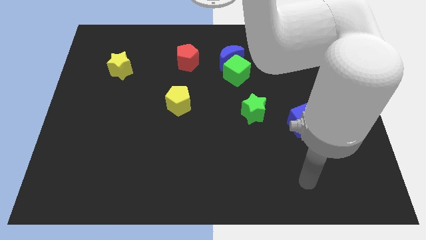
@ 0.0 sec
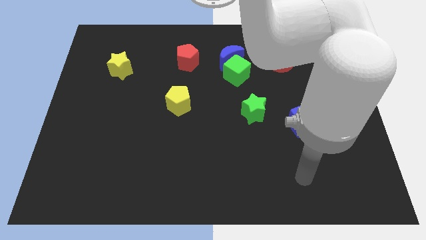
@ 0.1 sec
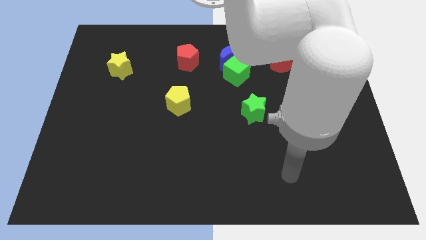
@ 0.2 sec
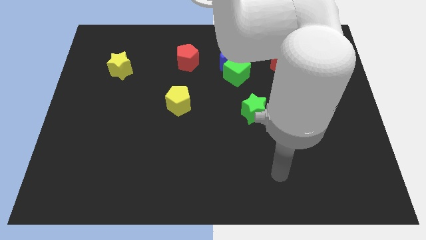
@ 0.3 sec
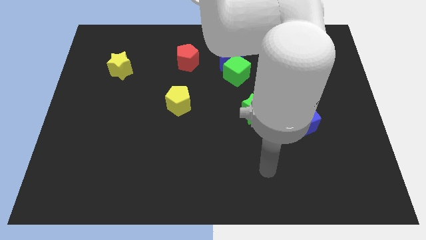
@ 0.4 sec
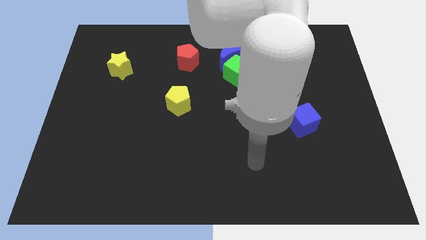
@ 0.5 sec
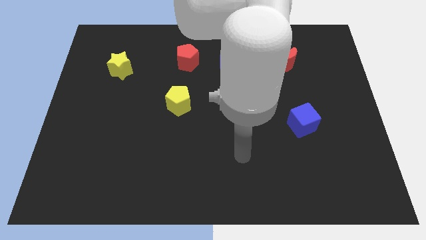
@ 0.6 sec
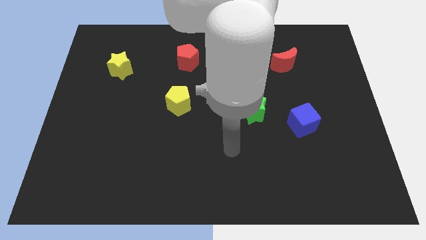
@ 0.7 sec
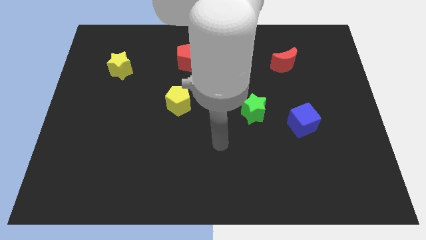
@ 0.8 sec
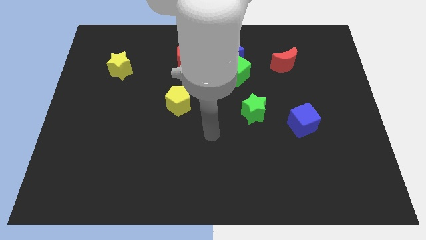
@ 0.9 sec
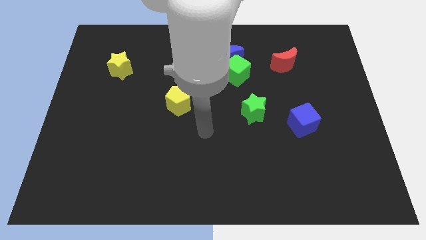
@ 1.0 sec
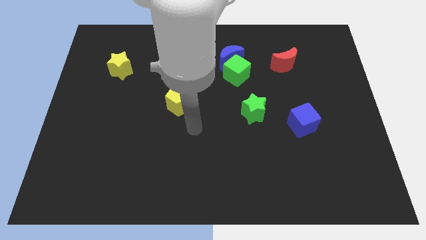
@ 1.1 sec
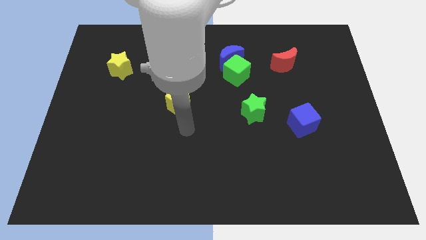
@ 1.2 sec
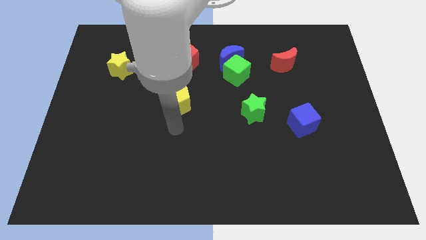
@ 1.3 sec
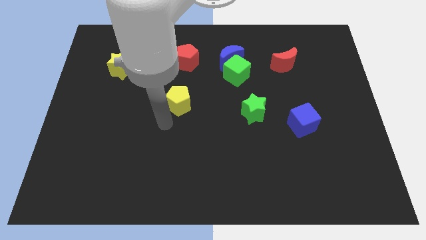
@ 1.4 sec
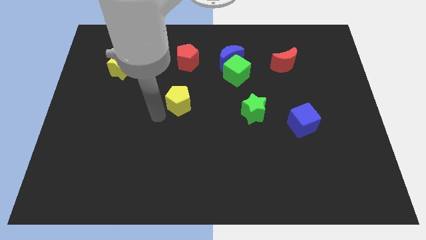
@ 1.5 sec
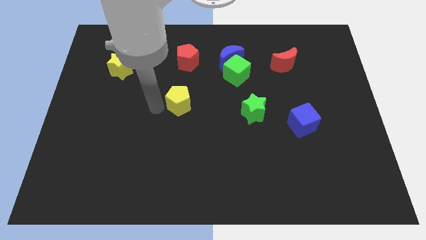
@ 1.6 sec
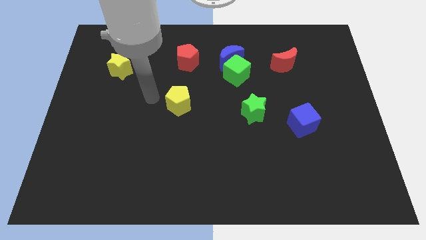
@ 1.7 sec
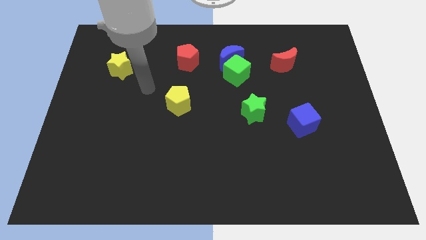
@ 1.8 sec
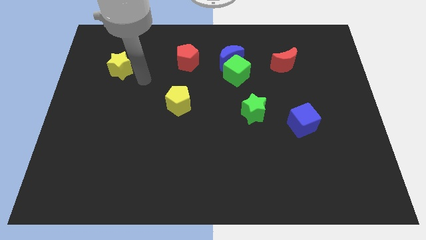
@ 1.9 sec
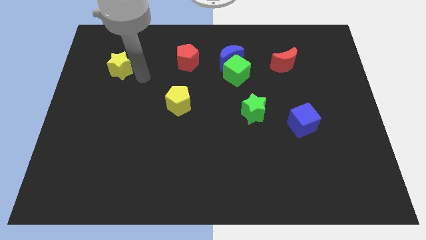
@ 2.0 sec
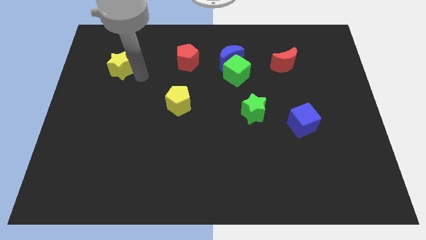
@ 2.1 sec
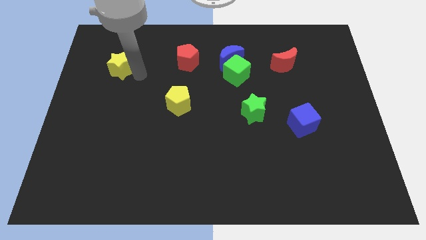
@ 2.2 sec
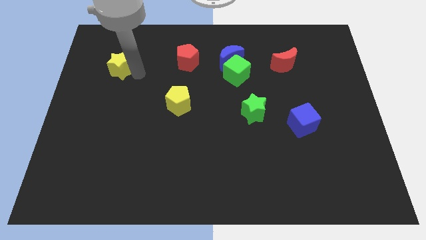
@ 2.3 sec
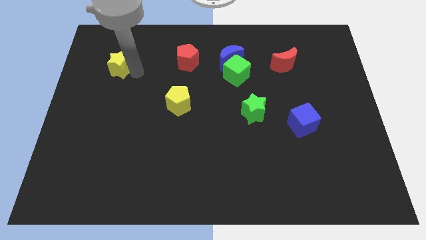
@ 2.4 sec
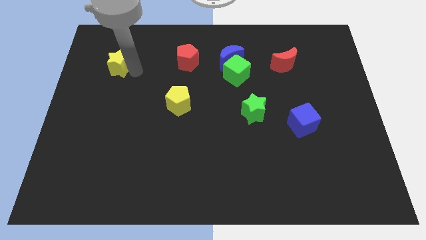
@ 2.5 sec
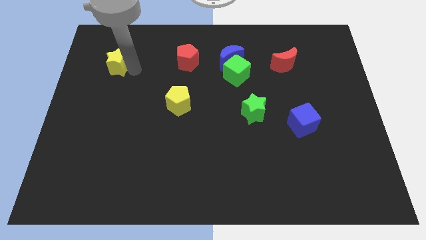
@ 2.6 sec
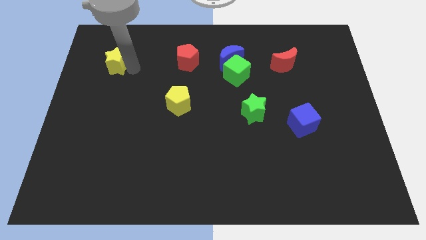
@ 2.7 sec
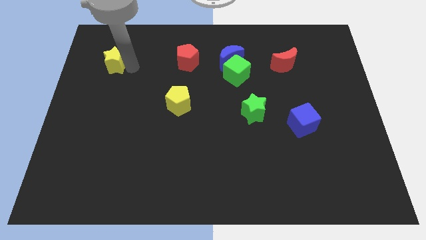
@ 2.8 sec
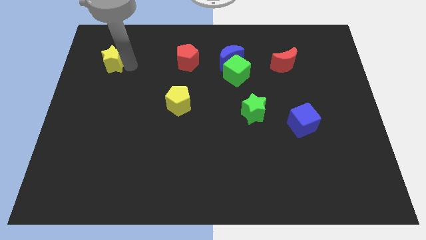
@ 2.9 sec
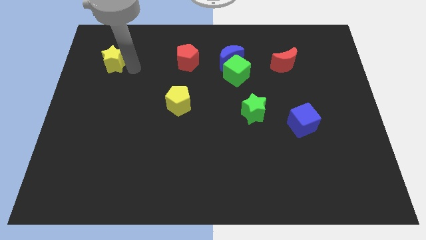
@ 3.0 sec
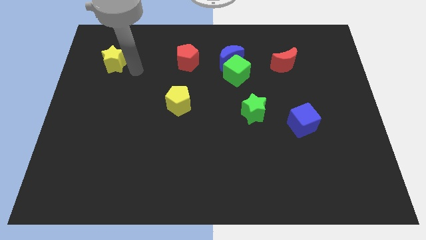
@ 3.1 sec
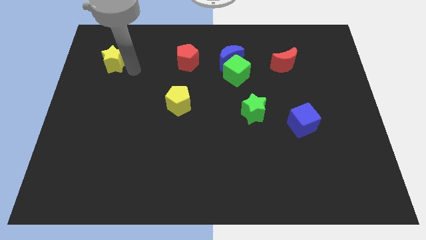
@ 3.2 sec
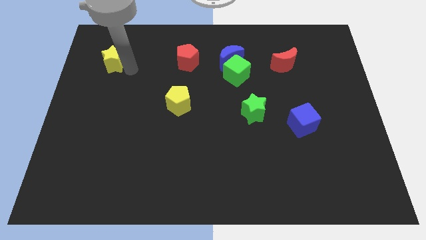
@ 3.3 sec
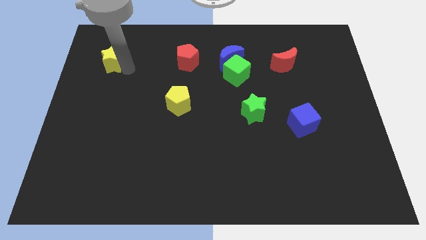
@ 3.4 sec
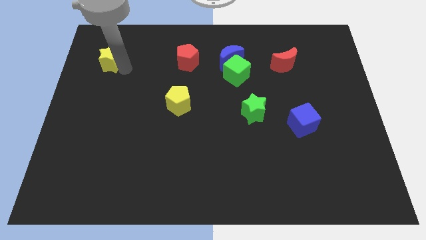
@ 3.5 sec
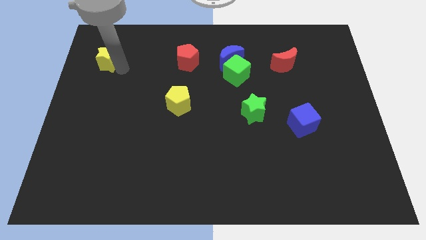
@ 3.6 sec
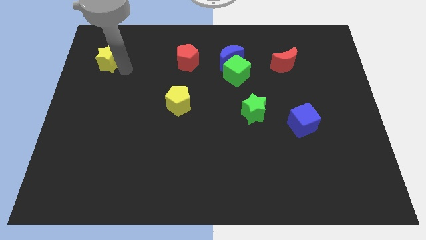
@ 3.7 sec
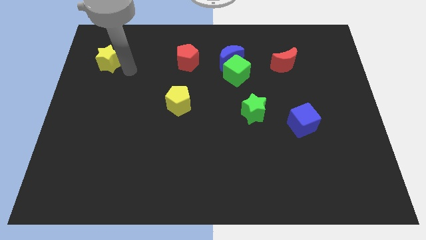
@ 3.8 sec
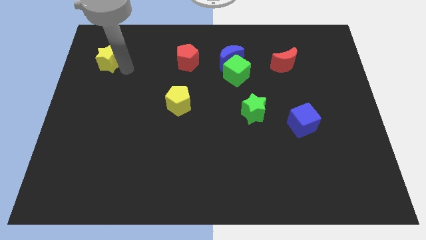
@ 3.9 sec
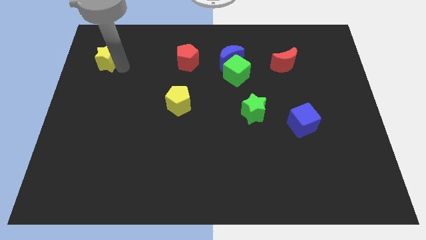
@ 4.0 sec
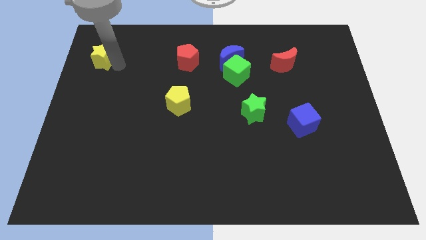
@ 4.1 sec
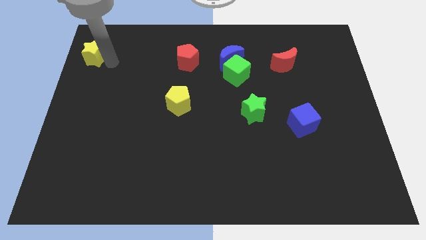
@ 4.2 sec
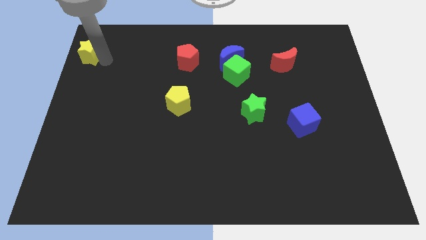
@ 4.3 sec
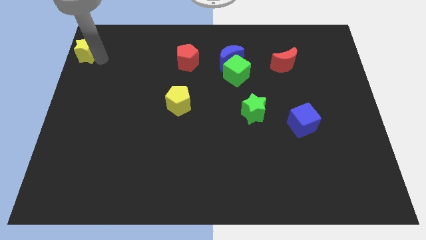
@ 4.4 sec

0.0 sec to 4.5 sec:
move the yellow star to the upper left corner

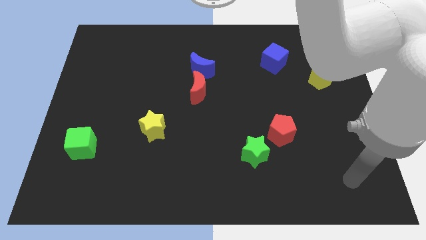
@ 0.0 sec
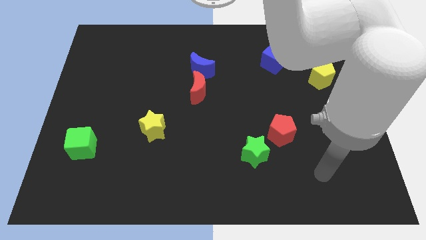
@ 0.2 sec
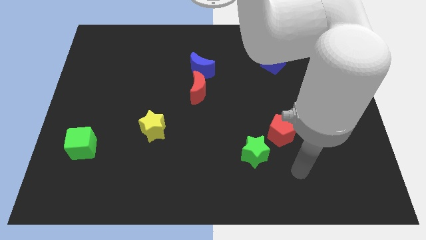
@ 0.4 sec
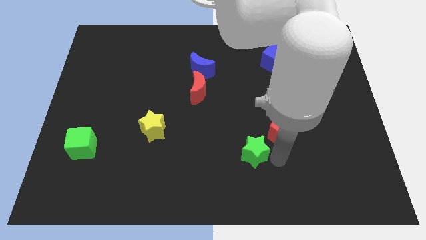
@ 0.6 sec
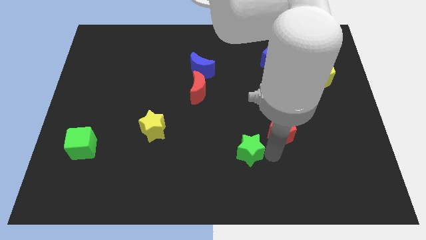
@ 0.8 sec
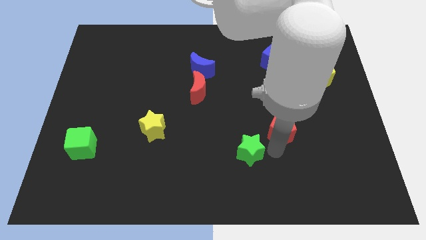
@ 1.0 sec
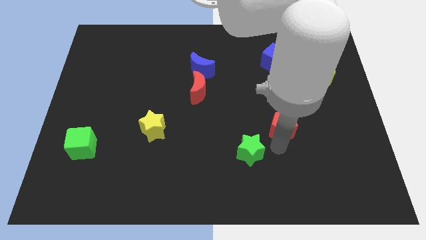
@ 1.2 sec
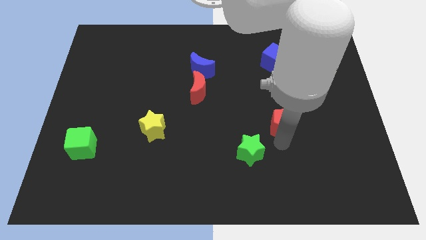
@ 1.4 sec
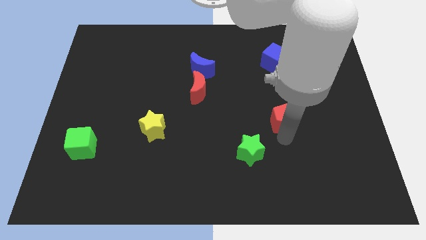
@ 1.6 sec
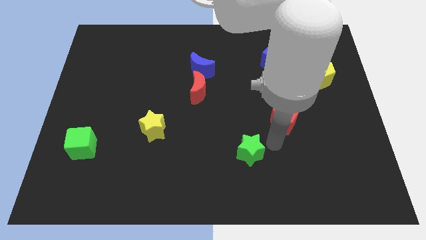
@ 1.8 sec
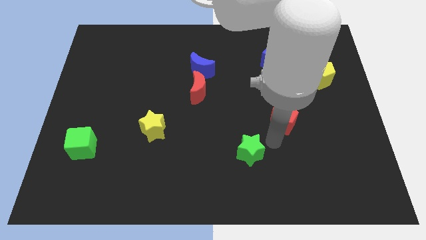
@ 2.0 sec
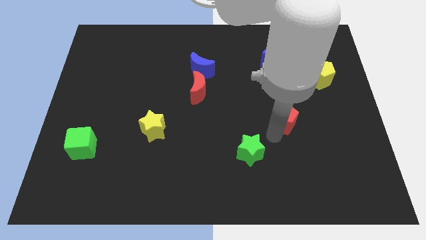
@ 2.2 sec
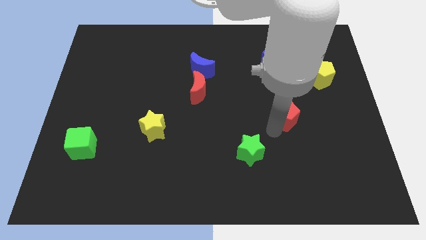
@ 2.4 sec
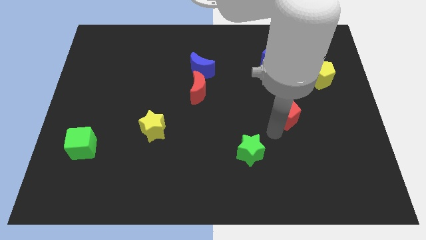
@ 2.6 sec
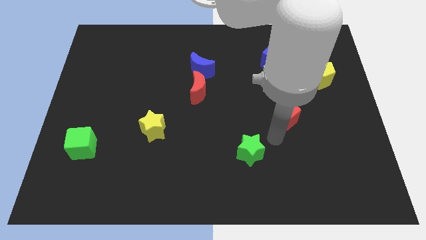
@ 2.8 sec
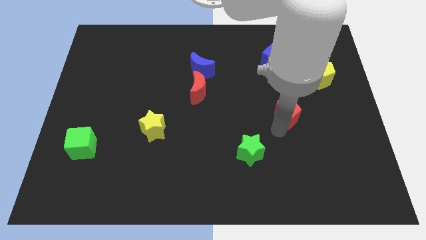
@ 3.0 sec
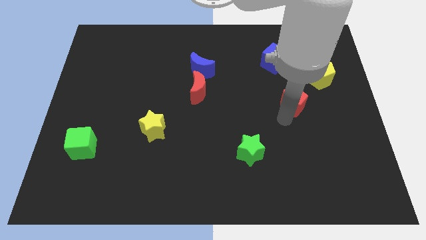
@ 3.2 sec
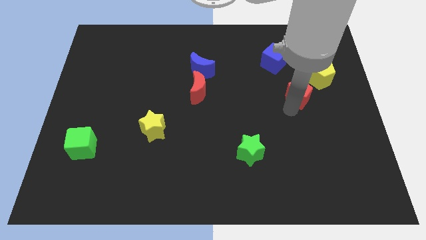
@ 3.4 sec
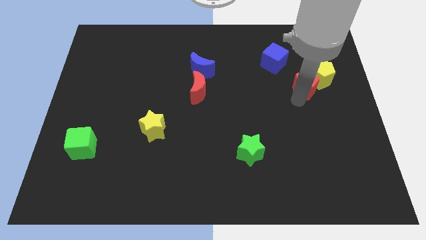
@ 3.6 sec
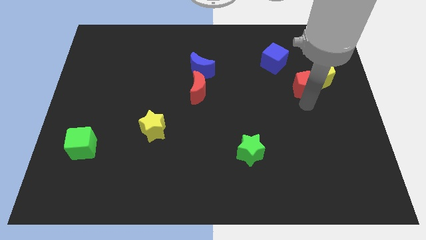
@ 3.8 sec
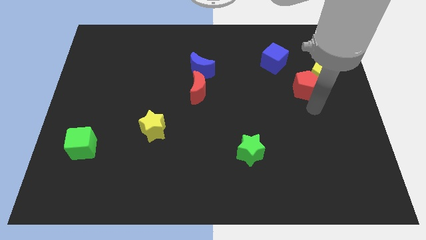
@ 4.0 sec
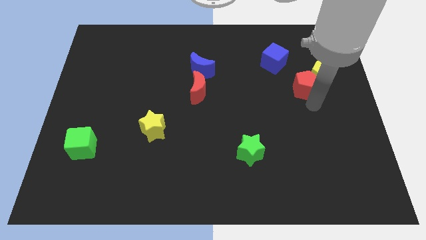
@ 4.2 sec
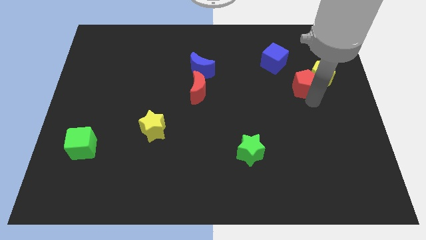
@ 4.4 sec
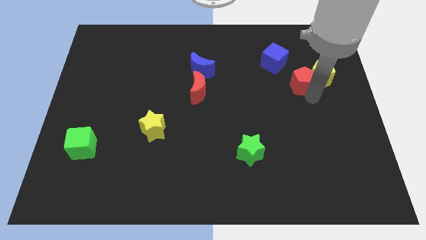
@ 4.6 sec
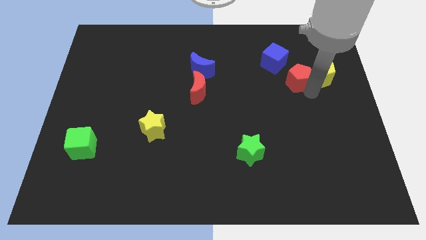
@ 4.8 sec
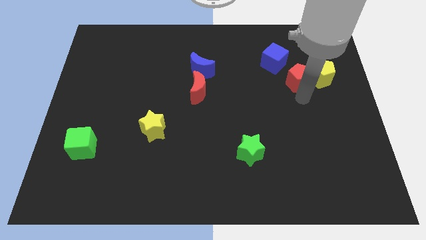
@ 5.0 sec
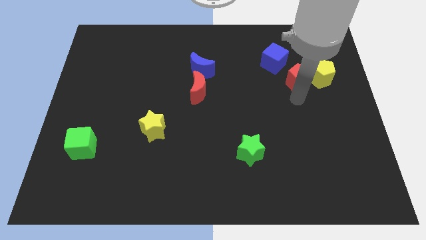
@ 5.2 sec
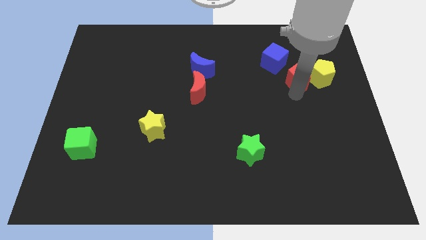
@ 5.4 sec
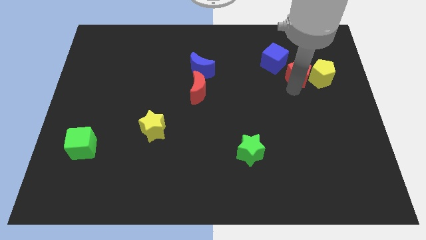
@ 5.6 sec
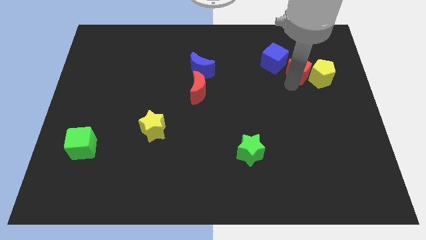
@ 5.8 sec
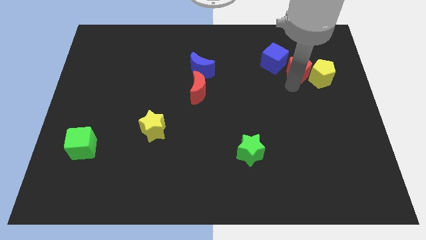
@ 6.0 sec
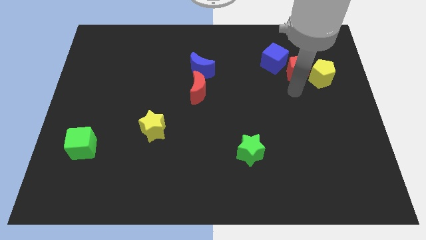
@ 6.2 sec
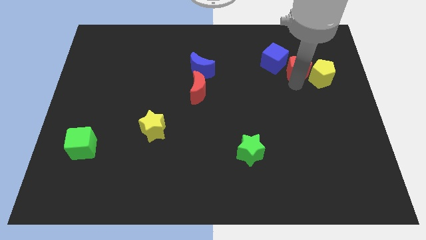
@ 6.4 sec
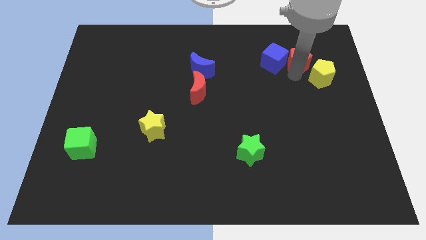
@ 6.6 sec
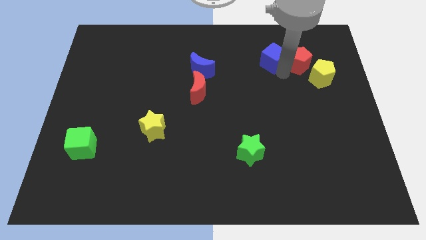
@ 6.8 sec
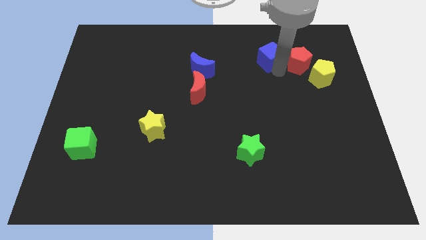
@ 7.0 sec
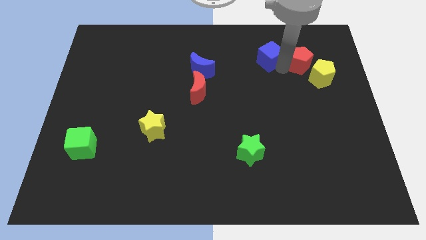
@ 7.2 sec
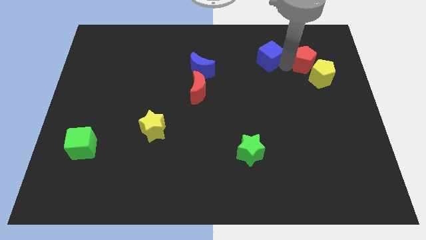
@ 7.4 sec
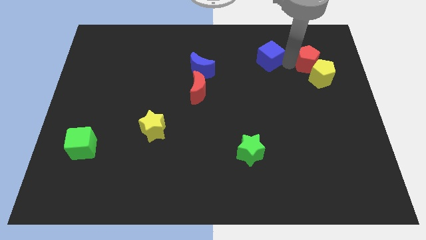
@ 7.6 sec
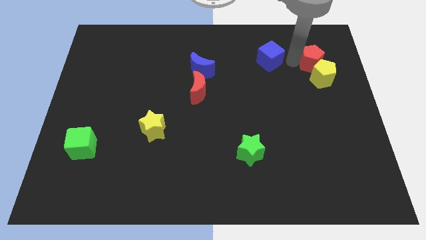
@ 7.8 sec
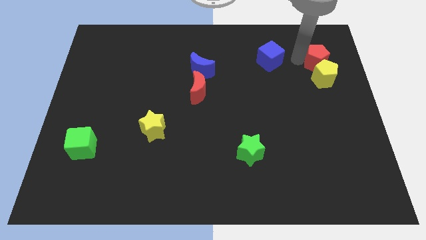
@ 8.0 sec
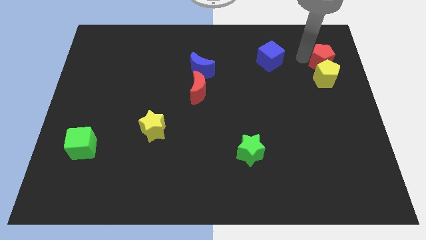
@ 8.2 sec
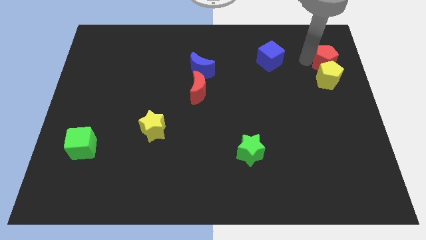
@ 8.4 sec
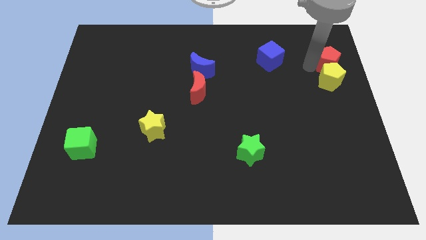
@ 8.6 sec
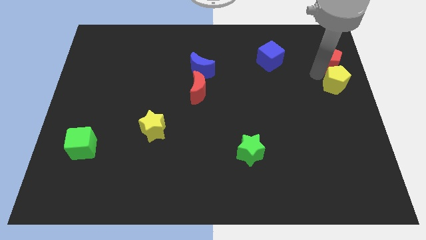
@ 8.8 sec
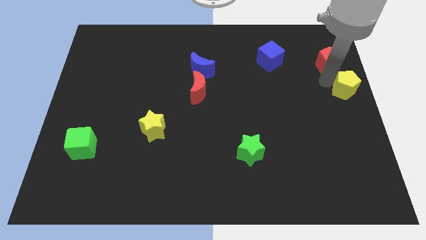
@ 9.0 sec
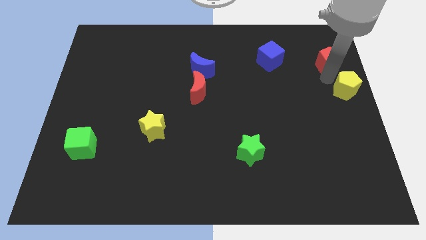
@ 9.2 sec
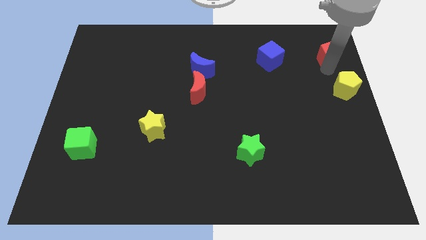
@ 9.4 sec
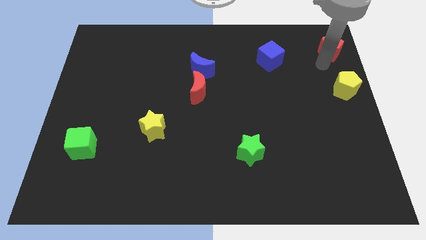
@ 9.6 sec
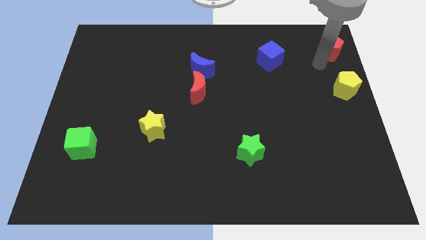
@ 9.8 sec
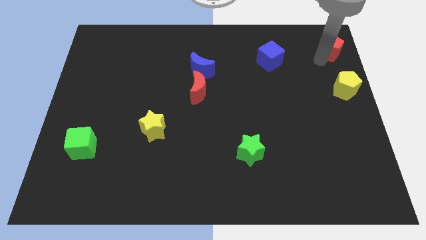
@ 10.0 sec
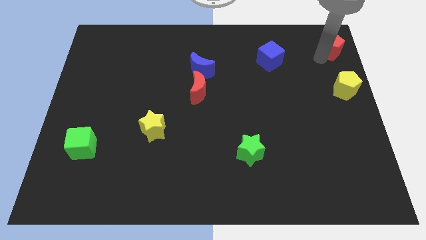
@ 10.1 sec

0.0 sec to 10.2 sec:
push the red pentagon to the top right corner
